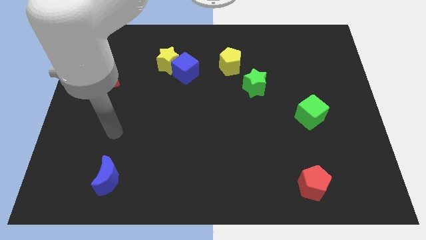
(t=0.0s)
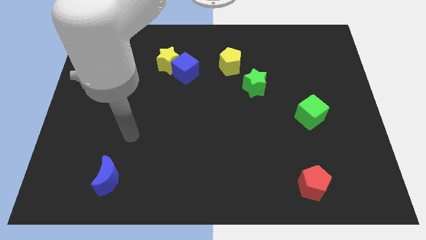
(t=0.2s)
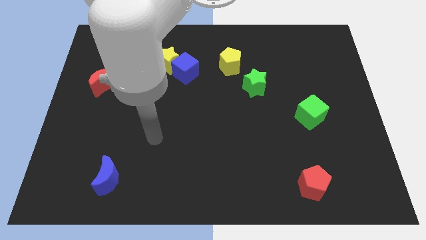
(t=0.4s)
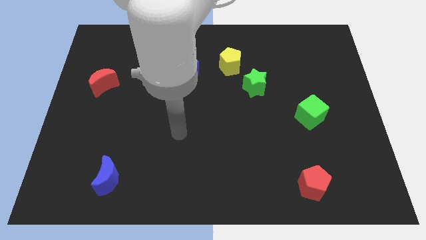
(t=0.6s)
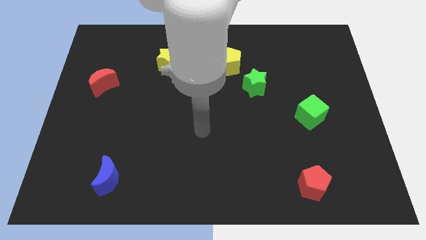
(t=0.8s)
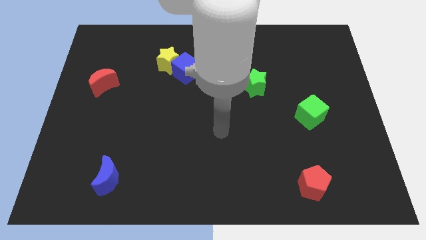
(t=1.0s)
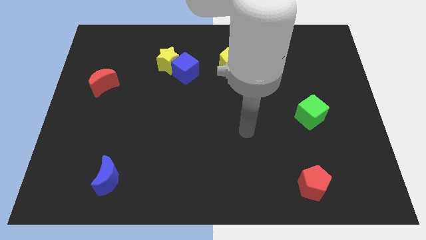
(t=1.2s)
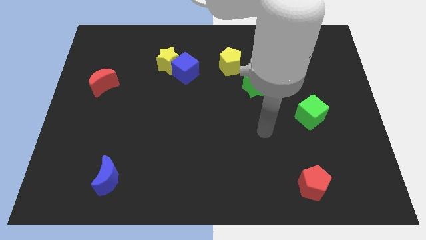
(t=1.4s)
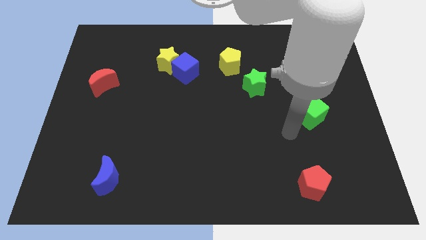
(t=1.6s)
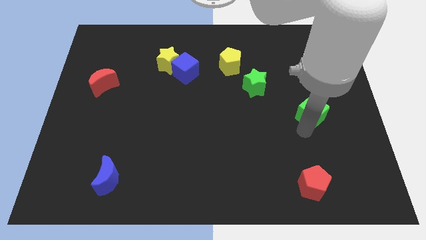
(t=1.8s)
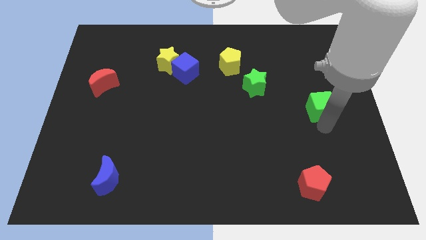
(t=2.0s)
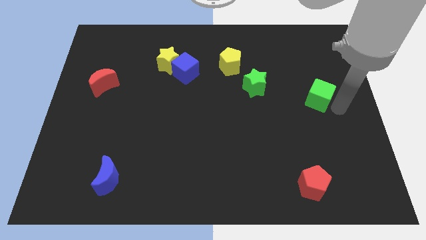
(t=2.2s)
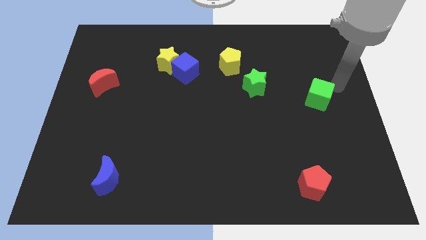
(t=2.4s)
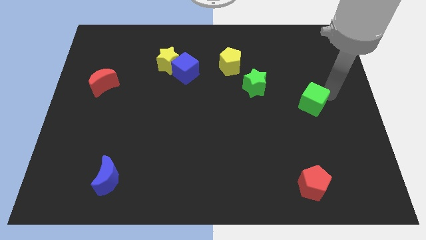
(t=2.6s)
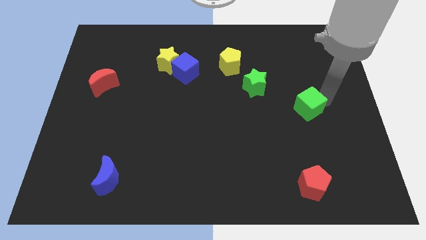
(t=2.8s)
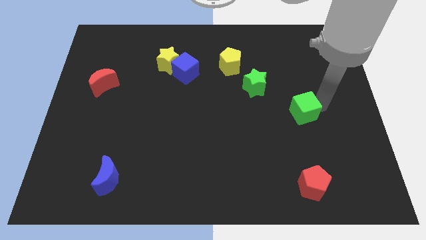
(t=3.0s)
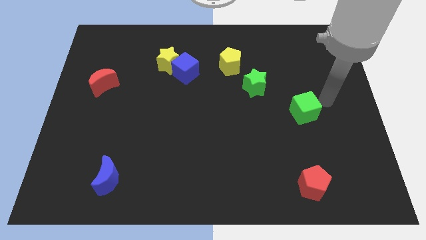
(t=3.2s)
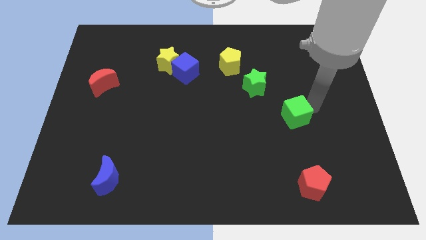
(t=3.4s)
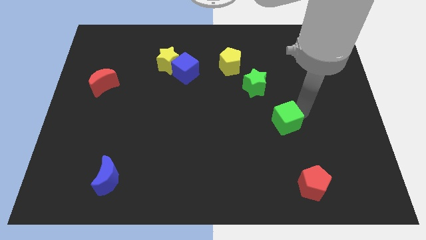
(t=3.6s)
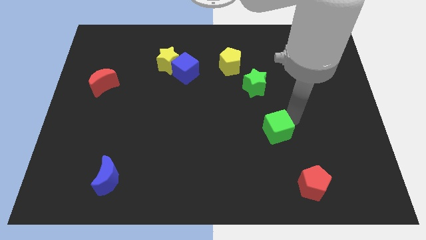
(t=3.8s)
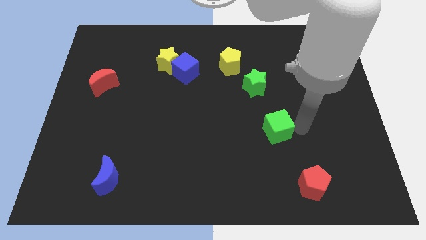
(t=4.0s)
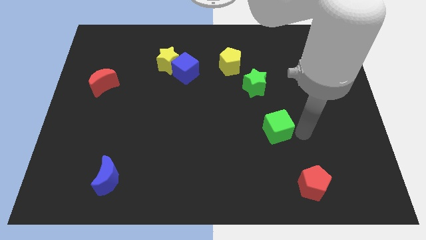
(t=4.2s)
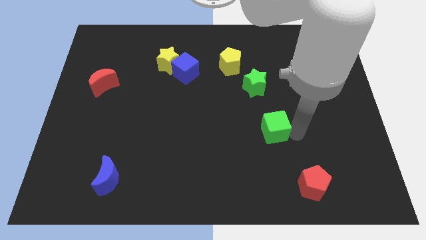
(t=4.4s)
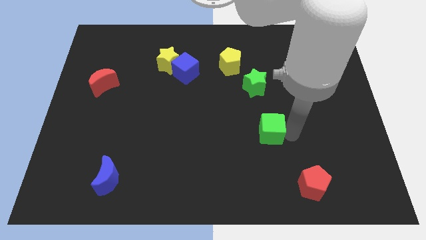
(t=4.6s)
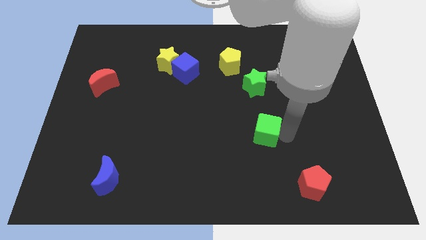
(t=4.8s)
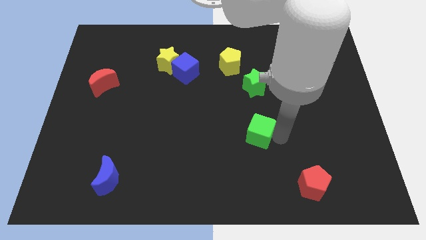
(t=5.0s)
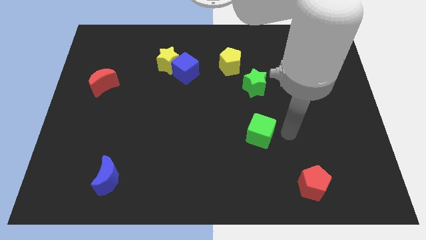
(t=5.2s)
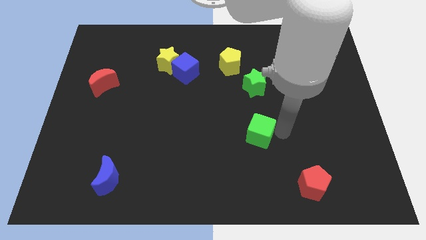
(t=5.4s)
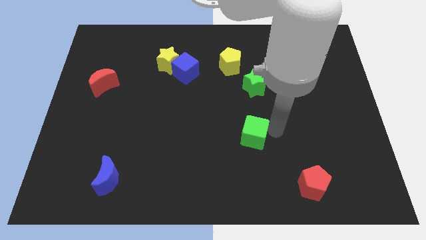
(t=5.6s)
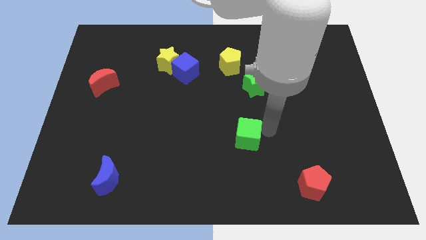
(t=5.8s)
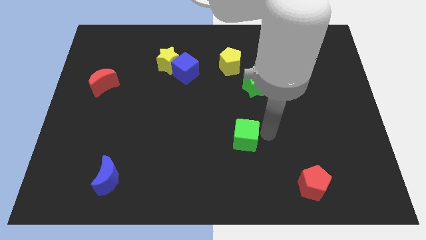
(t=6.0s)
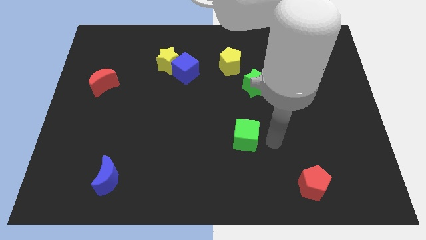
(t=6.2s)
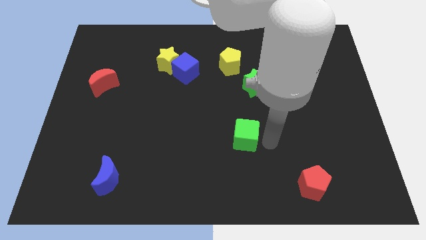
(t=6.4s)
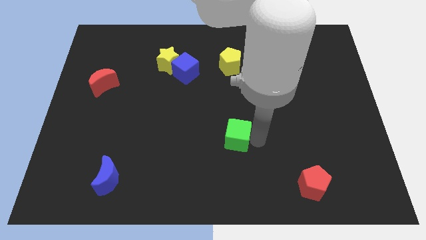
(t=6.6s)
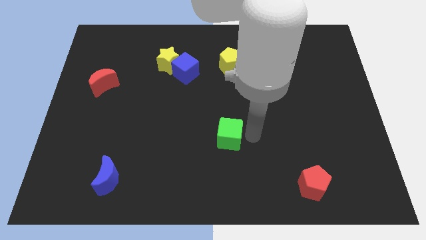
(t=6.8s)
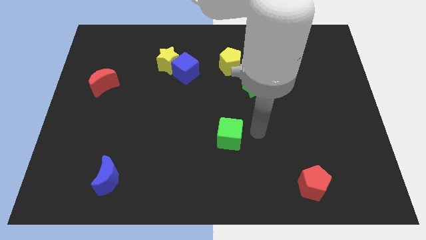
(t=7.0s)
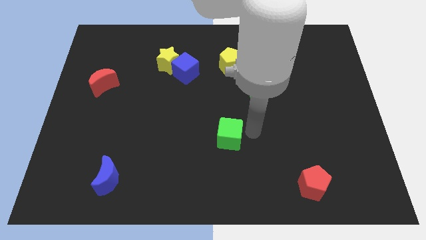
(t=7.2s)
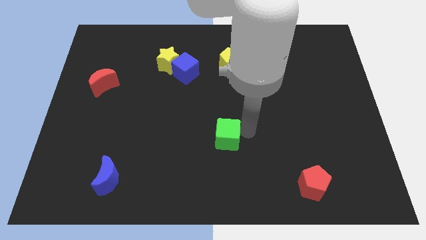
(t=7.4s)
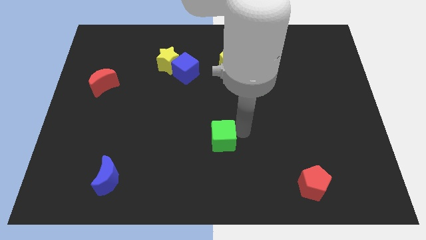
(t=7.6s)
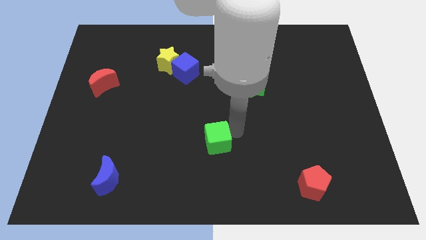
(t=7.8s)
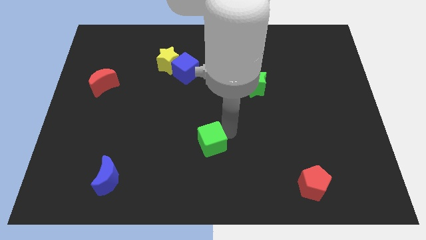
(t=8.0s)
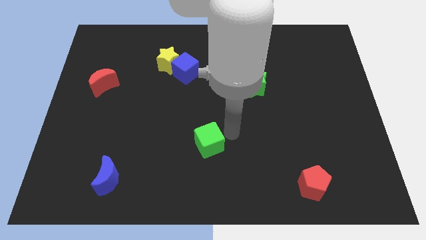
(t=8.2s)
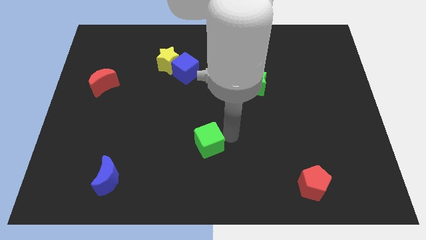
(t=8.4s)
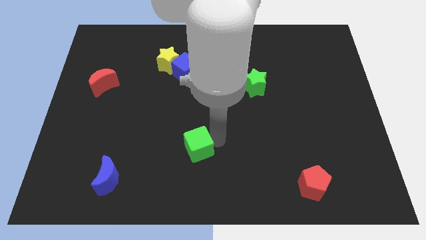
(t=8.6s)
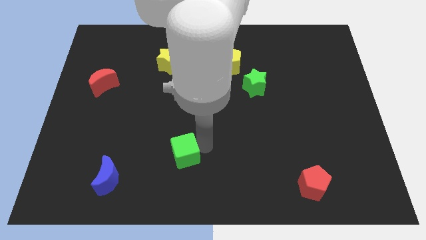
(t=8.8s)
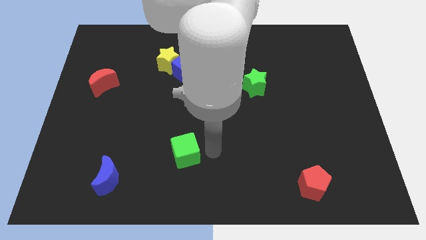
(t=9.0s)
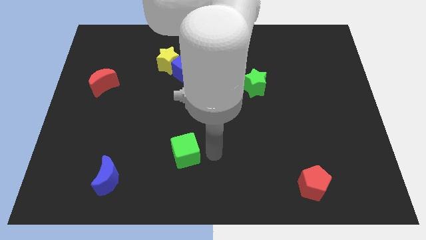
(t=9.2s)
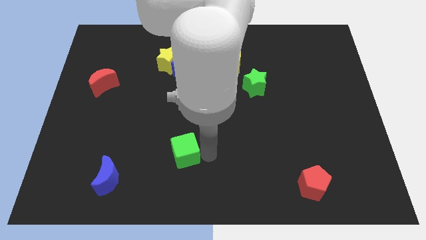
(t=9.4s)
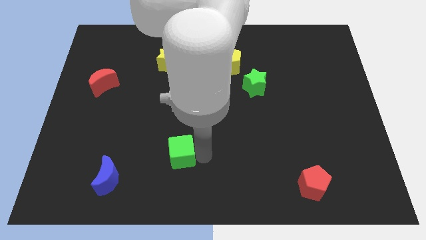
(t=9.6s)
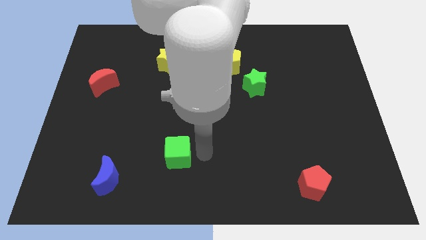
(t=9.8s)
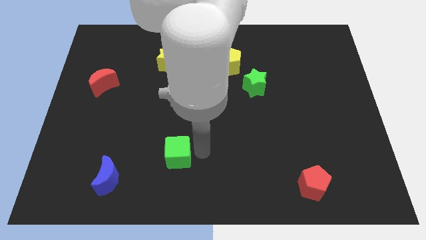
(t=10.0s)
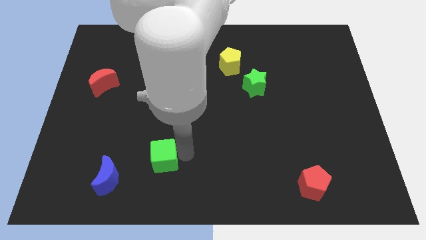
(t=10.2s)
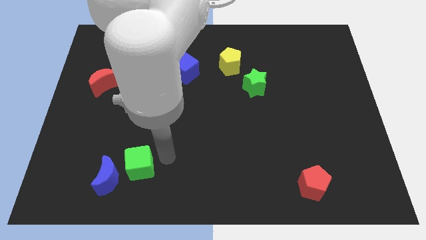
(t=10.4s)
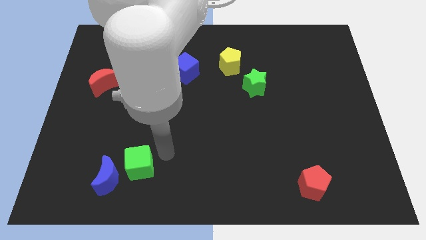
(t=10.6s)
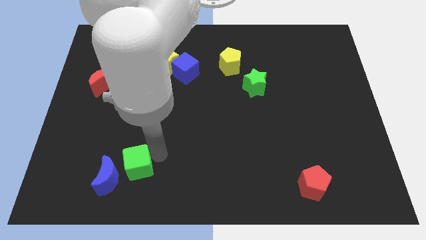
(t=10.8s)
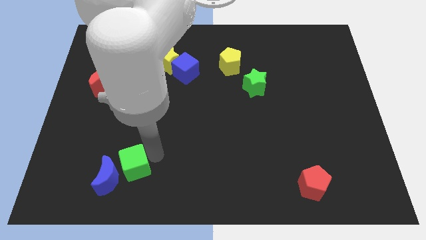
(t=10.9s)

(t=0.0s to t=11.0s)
slide the green cube close to the blue moon

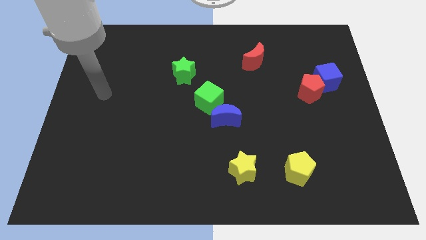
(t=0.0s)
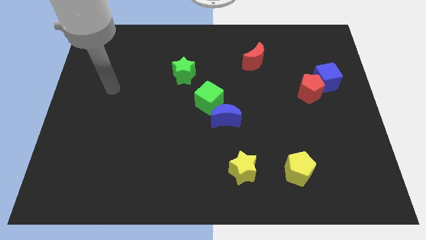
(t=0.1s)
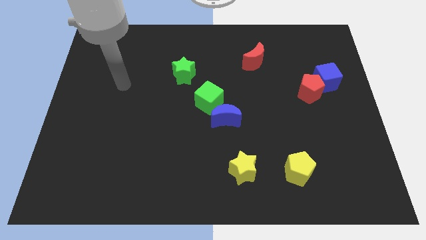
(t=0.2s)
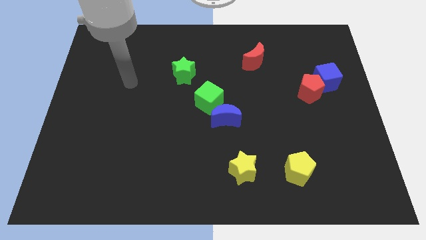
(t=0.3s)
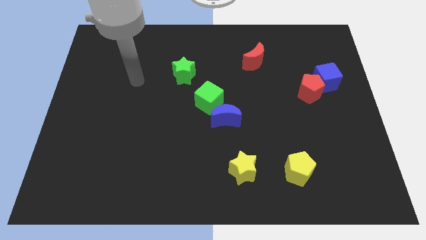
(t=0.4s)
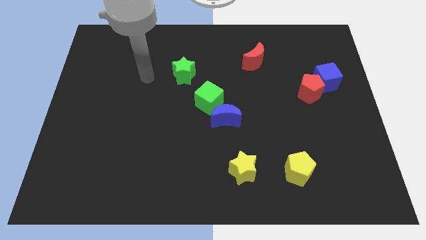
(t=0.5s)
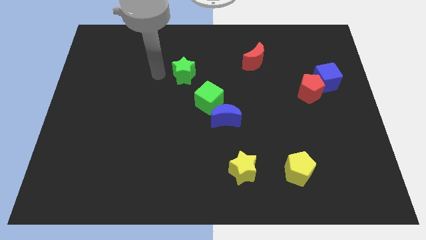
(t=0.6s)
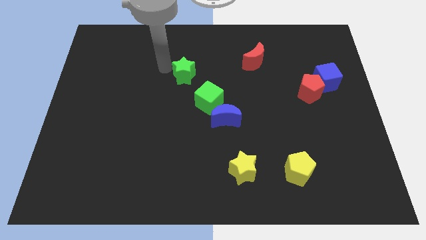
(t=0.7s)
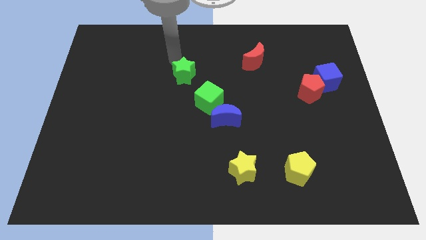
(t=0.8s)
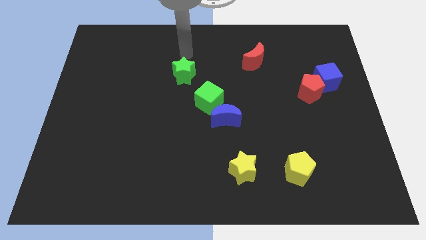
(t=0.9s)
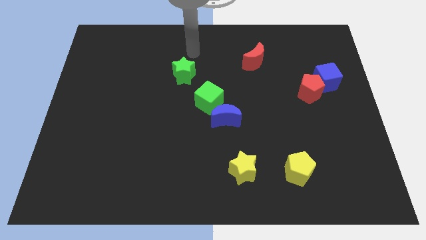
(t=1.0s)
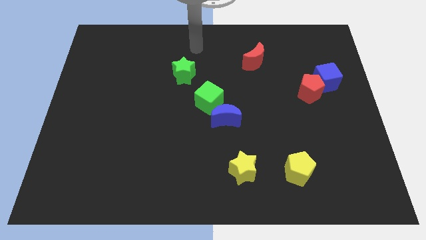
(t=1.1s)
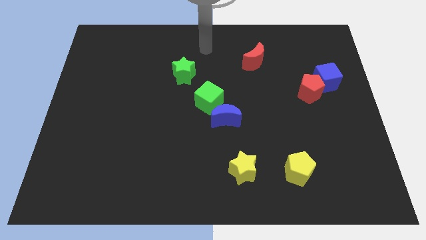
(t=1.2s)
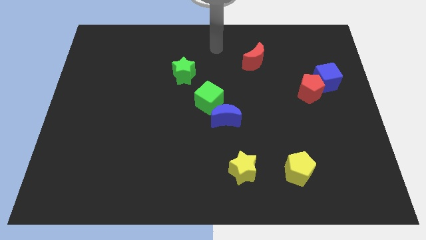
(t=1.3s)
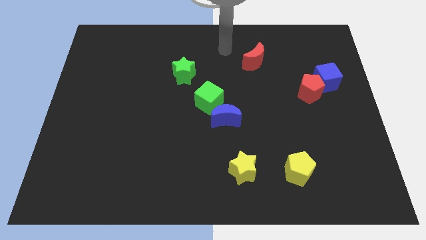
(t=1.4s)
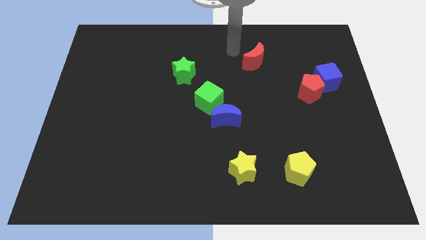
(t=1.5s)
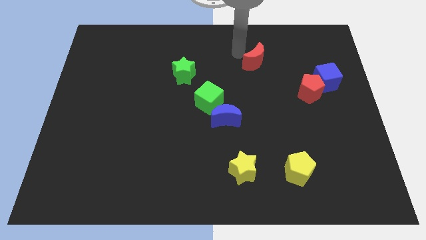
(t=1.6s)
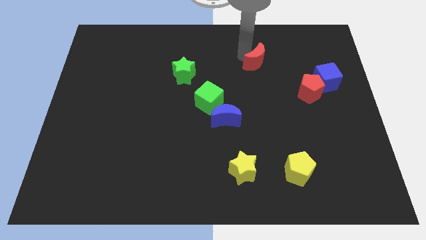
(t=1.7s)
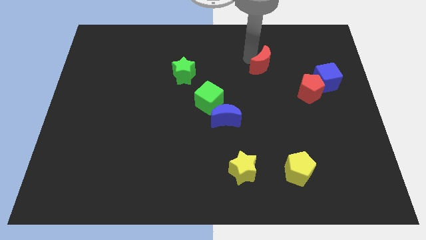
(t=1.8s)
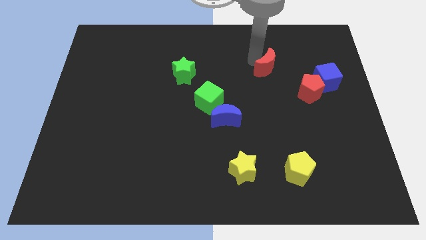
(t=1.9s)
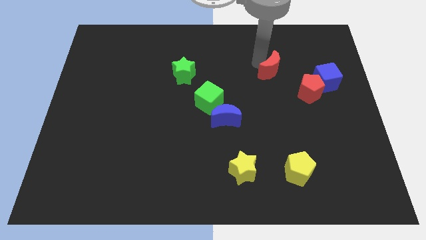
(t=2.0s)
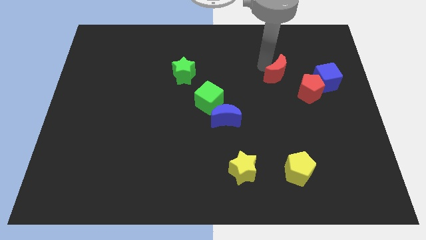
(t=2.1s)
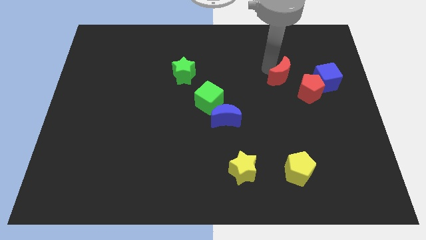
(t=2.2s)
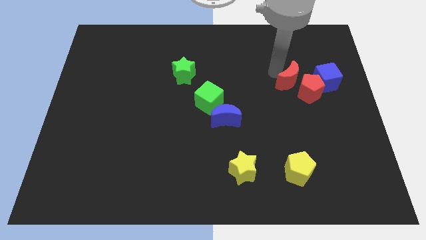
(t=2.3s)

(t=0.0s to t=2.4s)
put the red moon next to the red pentagon
